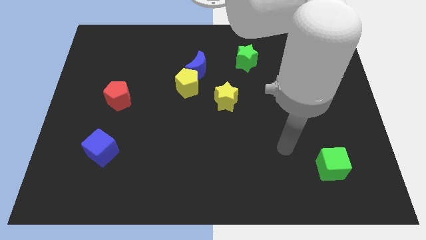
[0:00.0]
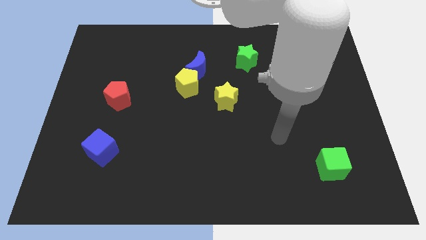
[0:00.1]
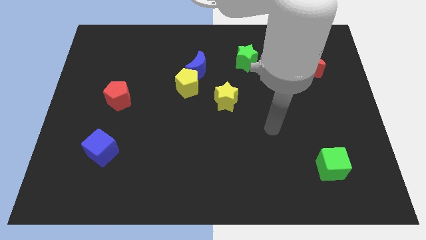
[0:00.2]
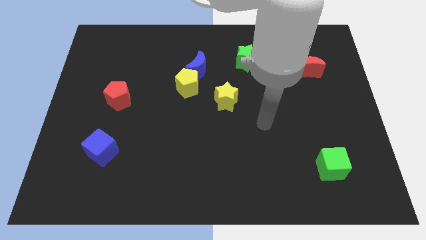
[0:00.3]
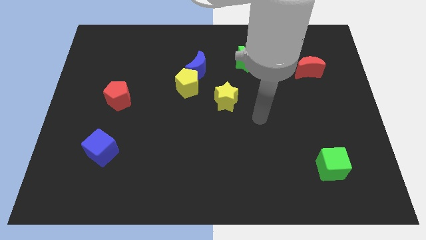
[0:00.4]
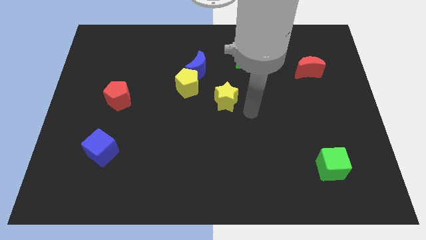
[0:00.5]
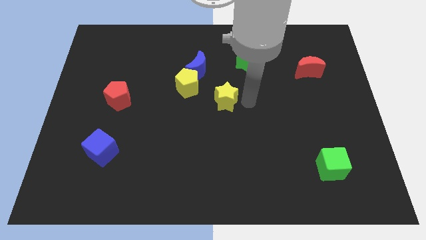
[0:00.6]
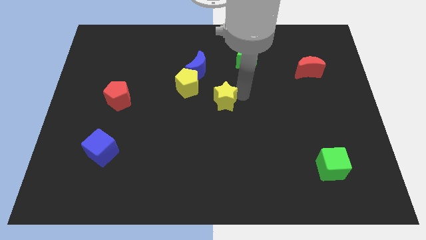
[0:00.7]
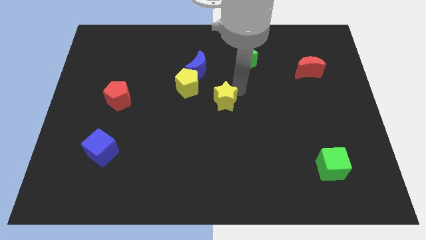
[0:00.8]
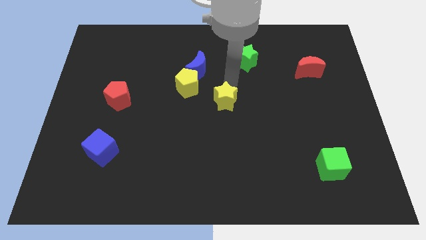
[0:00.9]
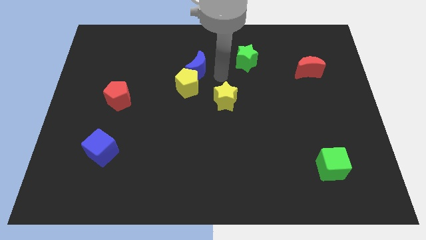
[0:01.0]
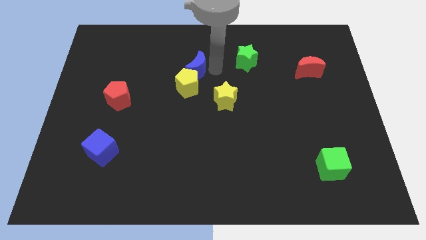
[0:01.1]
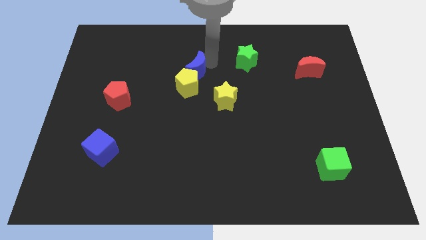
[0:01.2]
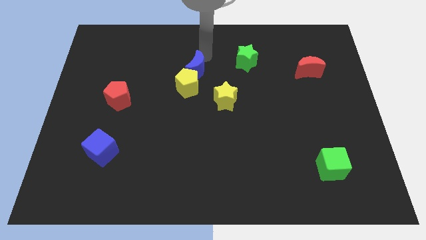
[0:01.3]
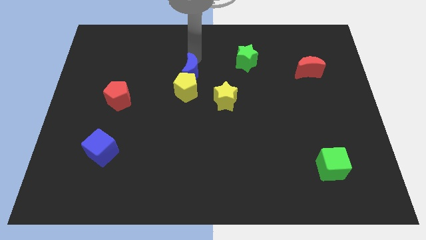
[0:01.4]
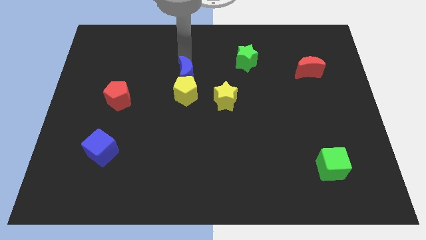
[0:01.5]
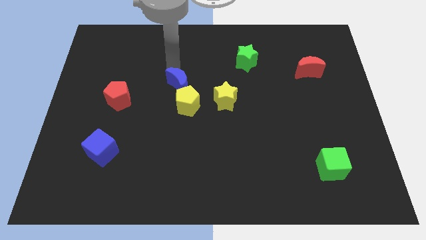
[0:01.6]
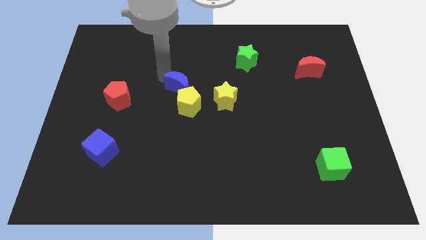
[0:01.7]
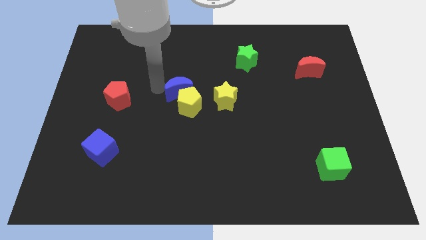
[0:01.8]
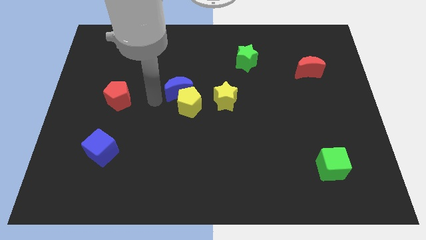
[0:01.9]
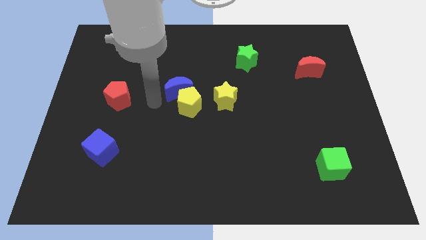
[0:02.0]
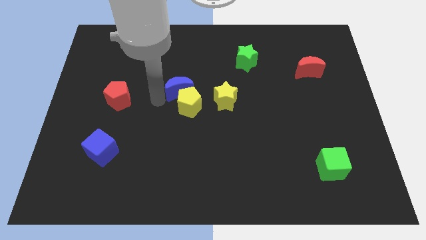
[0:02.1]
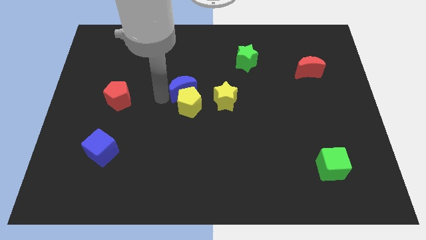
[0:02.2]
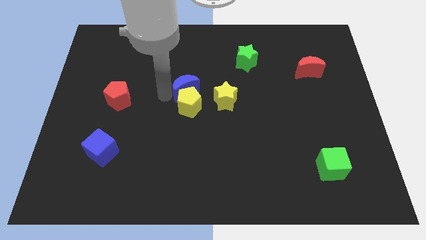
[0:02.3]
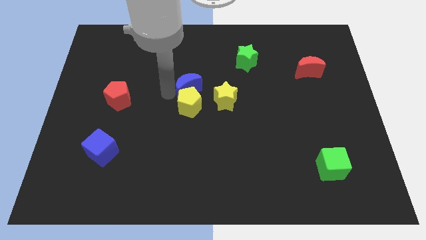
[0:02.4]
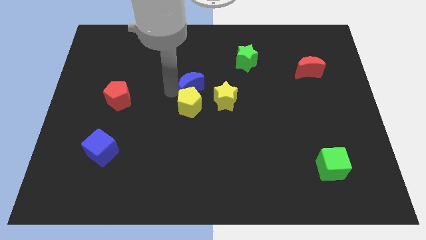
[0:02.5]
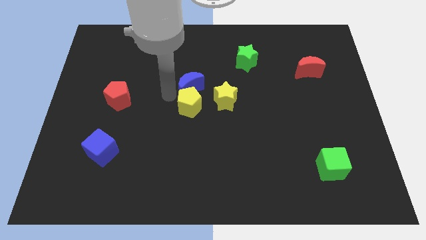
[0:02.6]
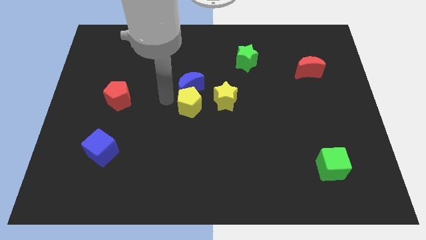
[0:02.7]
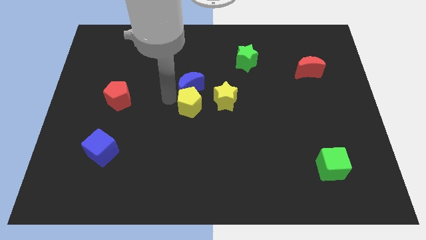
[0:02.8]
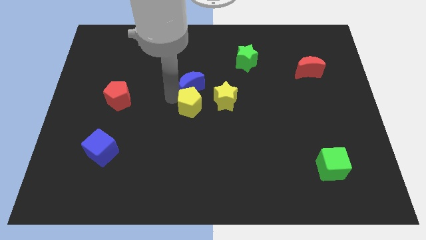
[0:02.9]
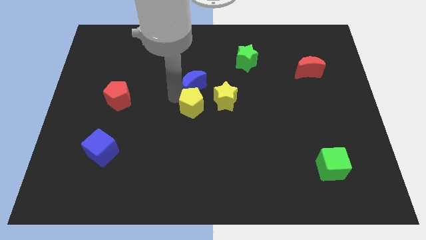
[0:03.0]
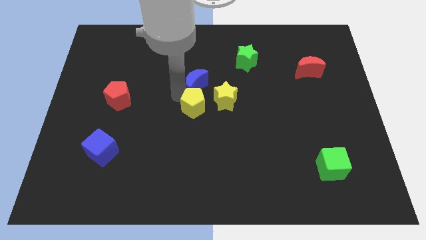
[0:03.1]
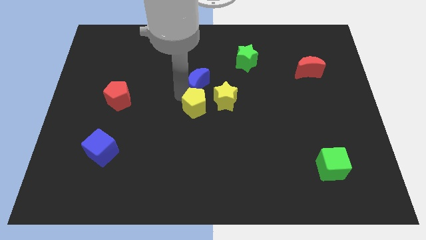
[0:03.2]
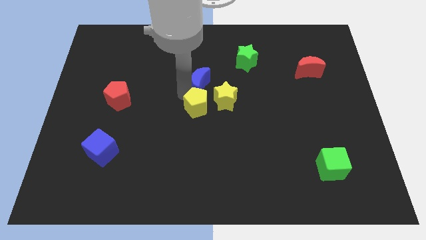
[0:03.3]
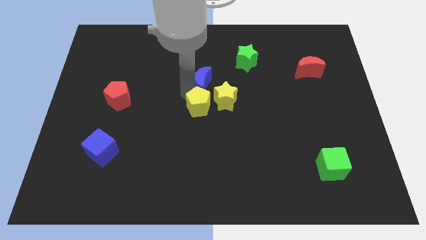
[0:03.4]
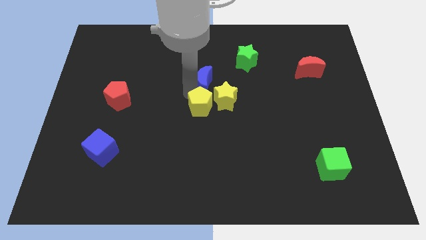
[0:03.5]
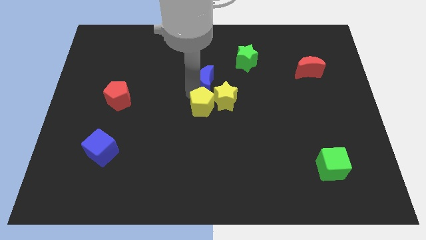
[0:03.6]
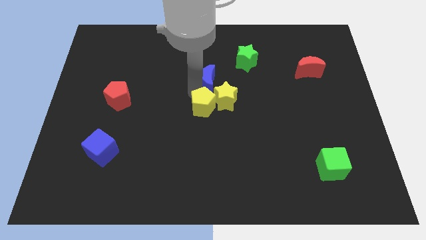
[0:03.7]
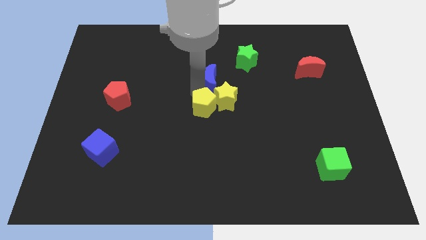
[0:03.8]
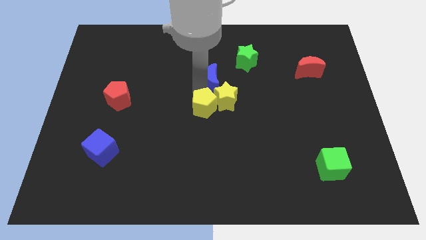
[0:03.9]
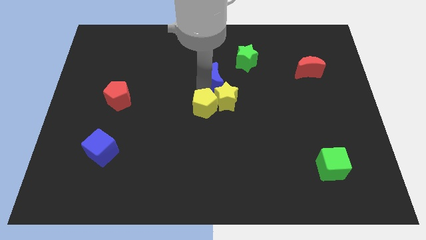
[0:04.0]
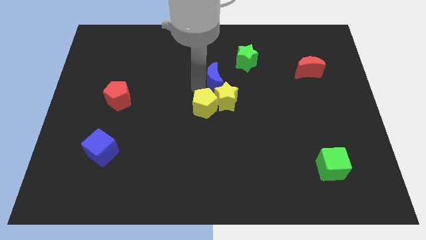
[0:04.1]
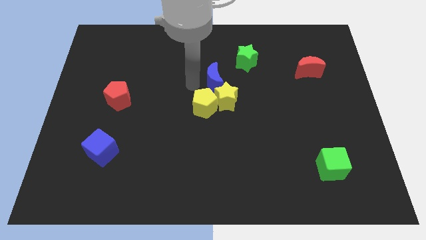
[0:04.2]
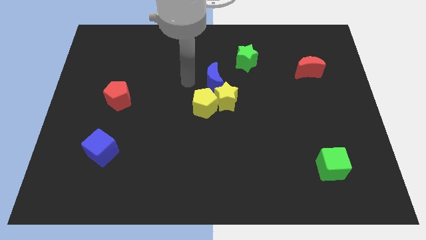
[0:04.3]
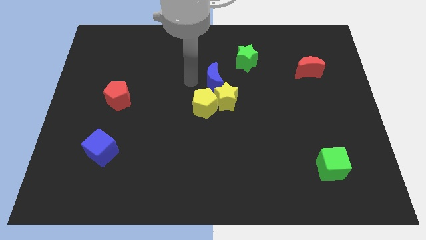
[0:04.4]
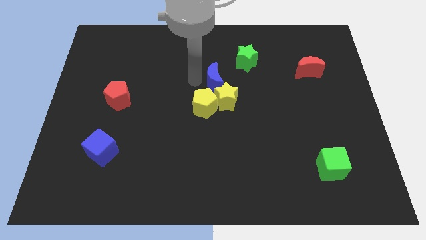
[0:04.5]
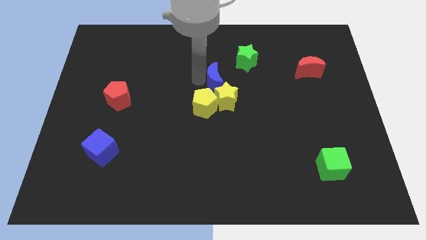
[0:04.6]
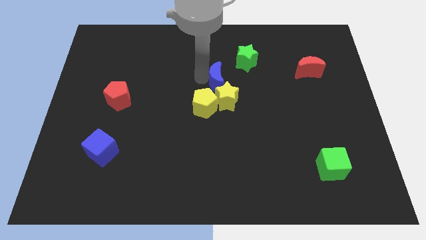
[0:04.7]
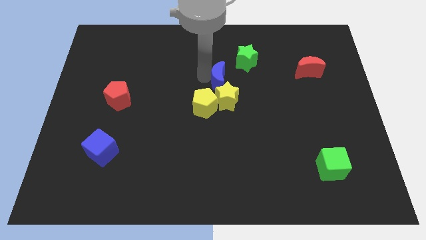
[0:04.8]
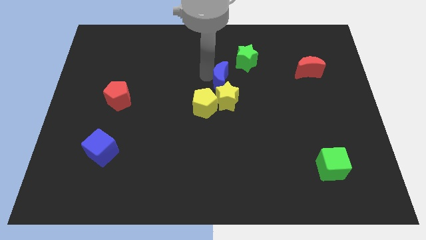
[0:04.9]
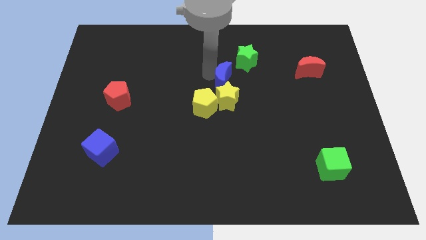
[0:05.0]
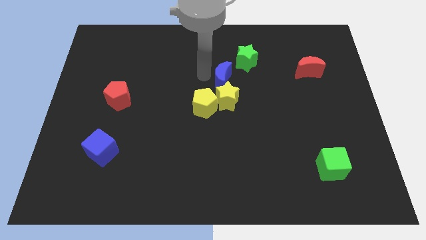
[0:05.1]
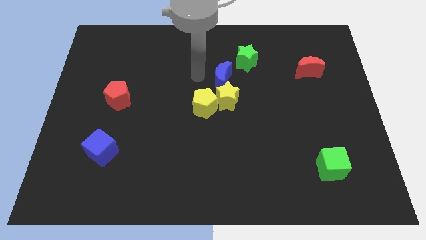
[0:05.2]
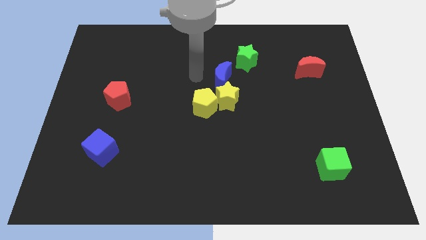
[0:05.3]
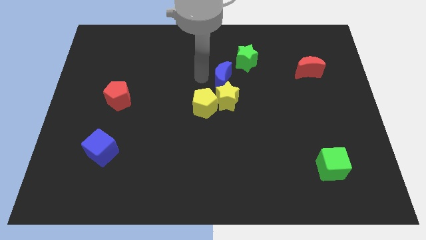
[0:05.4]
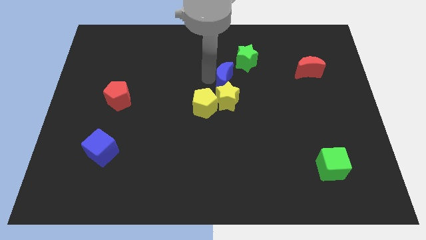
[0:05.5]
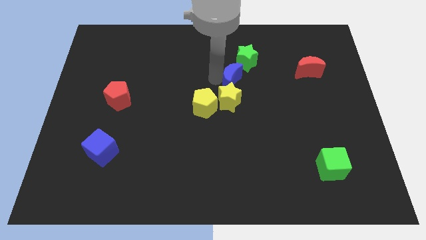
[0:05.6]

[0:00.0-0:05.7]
put the blue moon to the top right of the yellow star

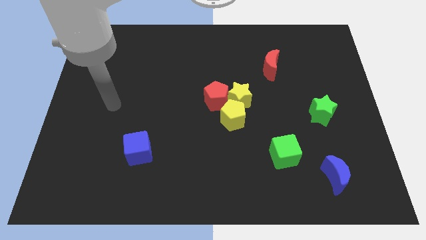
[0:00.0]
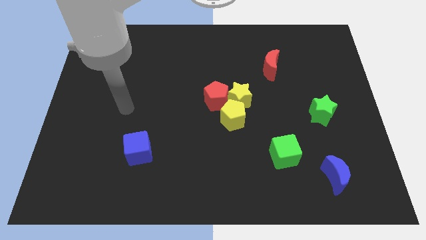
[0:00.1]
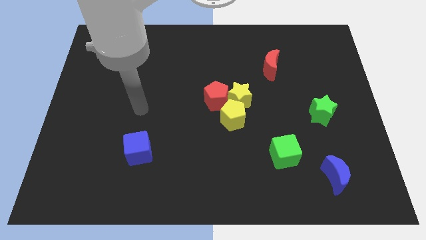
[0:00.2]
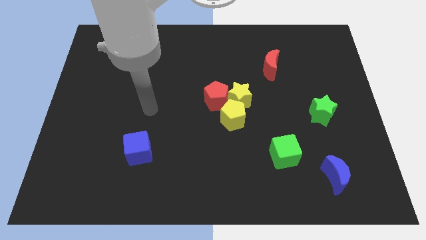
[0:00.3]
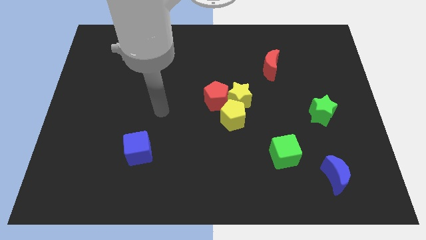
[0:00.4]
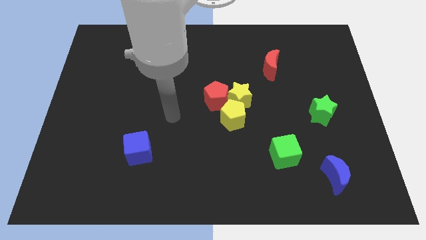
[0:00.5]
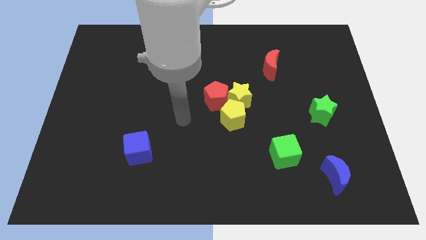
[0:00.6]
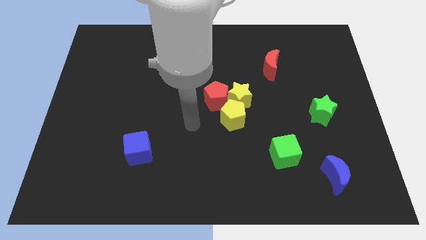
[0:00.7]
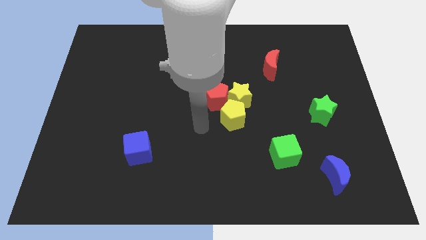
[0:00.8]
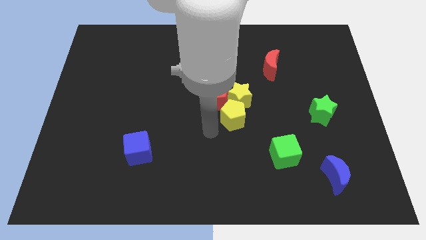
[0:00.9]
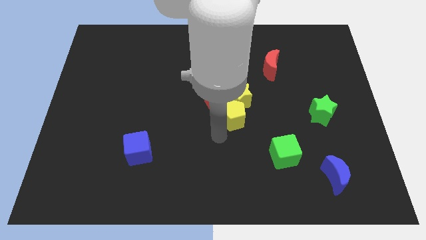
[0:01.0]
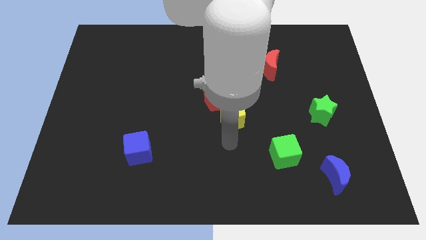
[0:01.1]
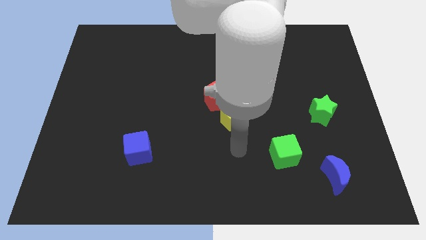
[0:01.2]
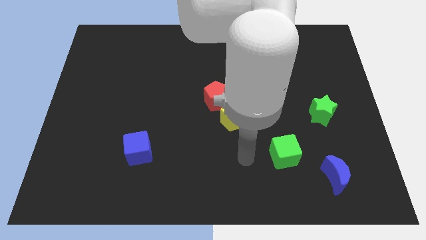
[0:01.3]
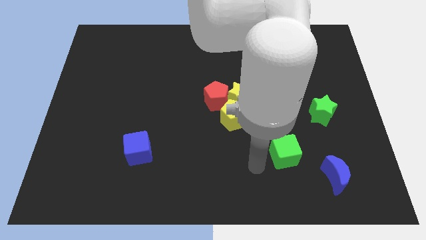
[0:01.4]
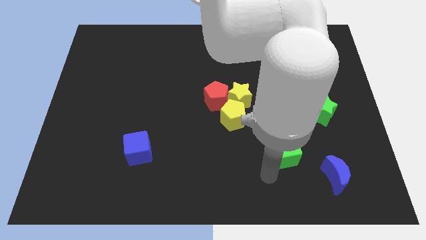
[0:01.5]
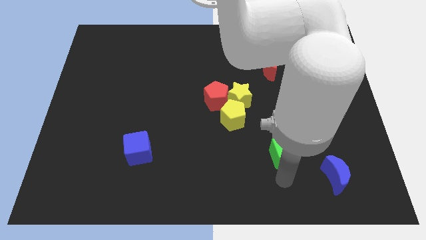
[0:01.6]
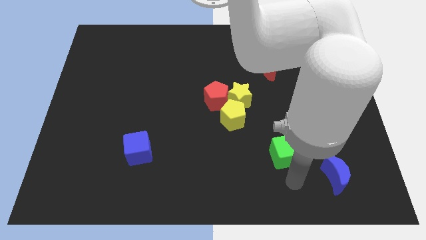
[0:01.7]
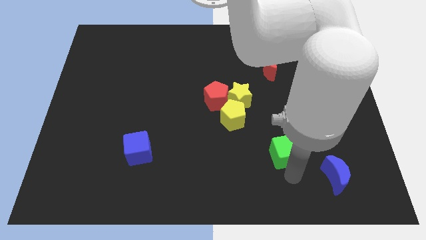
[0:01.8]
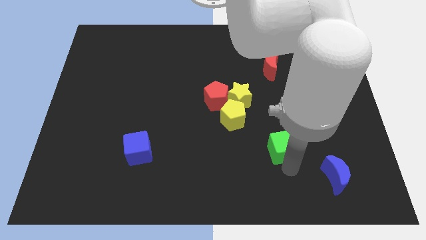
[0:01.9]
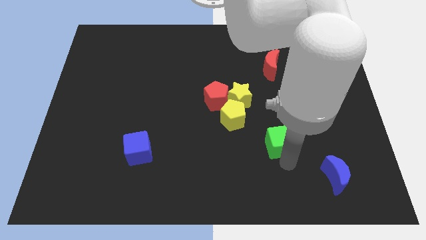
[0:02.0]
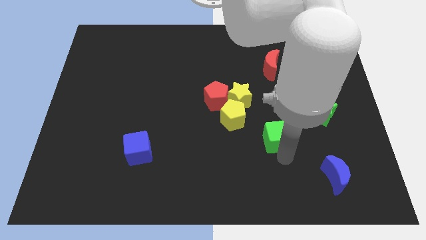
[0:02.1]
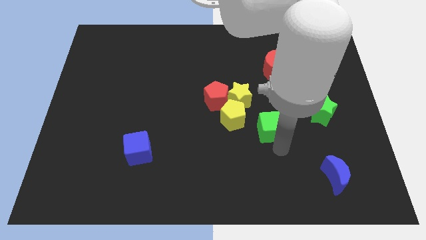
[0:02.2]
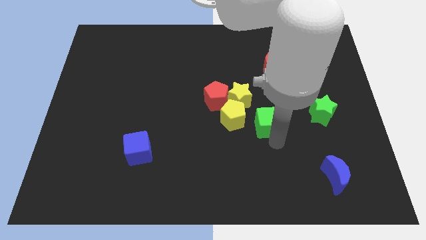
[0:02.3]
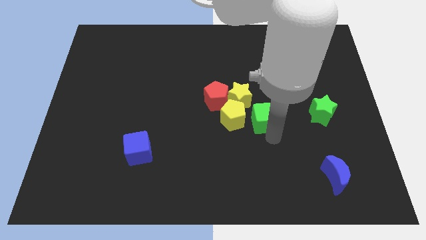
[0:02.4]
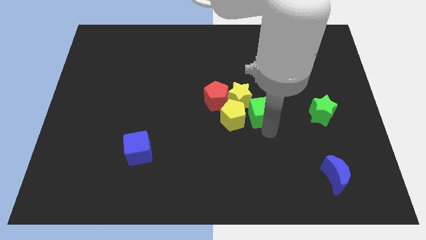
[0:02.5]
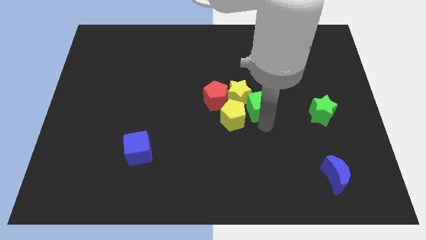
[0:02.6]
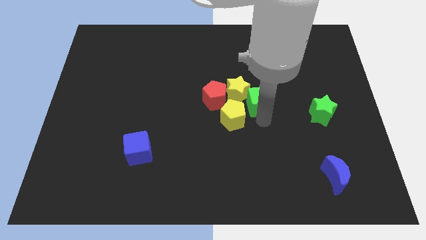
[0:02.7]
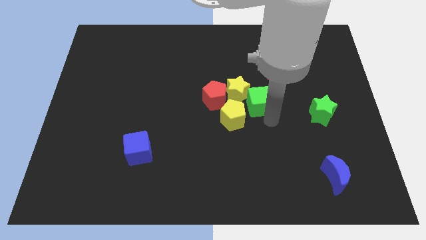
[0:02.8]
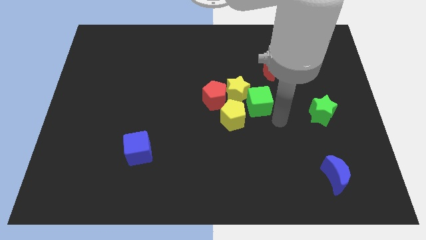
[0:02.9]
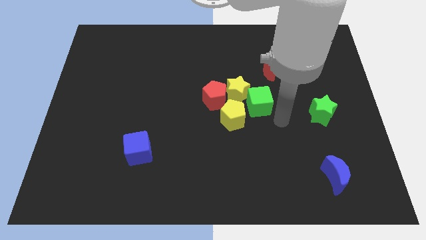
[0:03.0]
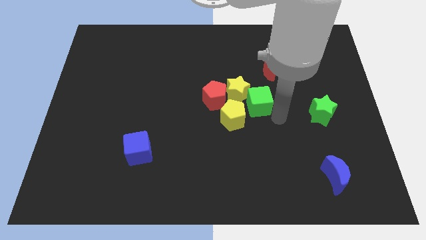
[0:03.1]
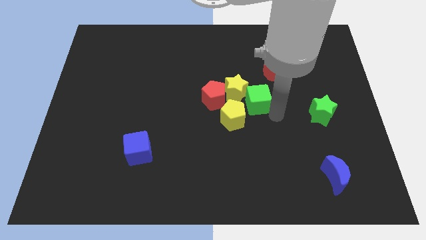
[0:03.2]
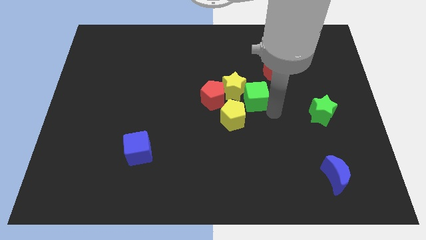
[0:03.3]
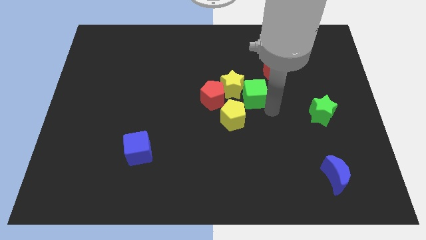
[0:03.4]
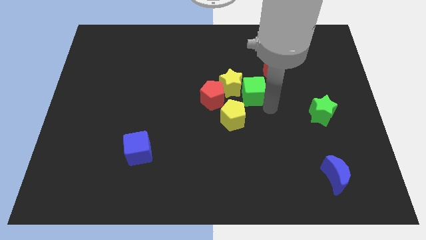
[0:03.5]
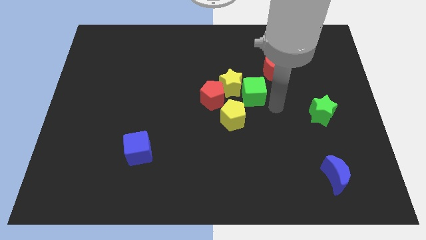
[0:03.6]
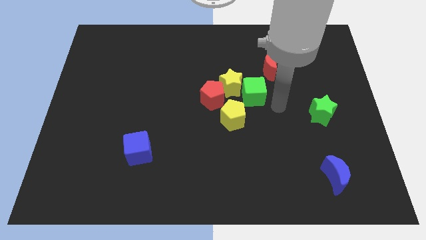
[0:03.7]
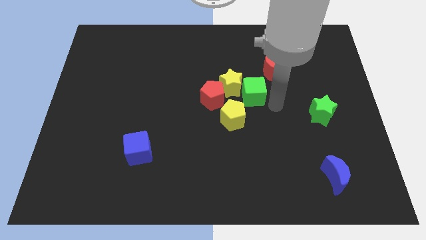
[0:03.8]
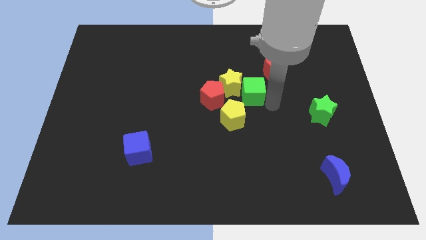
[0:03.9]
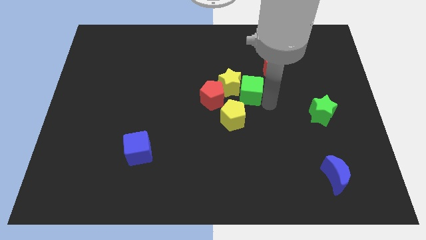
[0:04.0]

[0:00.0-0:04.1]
slide the green cube to the top of the yellow pentagon
